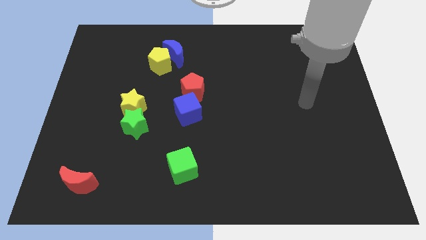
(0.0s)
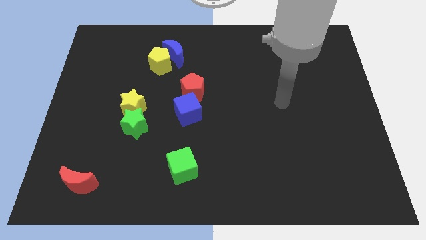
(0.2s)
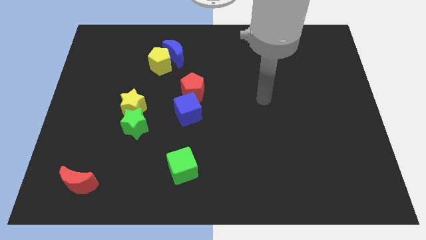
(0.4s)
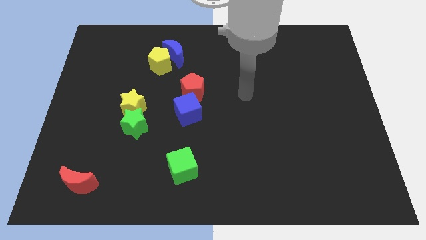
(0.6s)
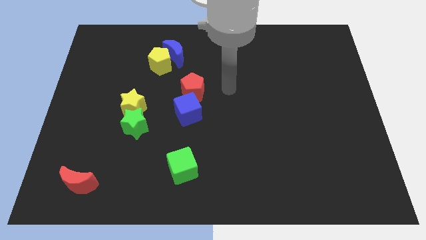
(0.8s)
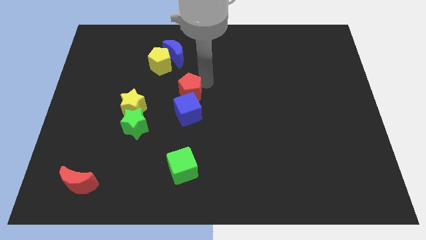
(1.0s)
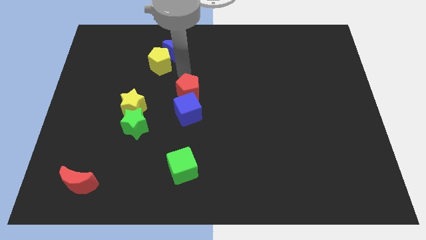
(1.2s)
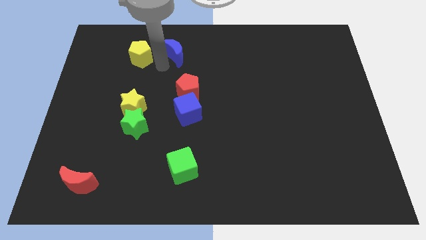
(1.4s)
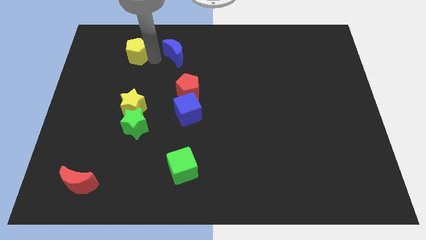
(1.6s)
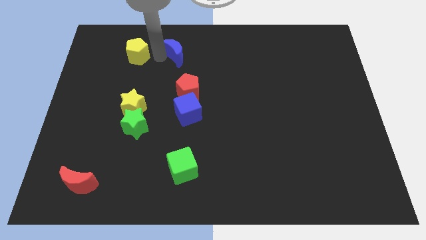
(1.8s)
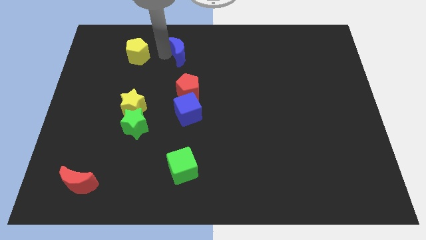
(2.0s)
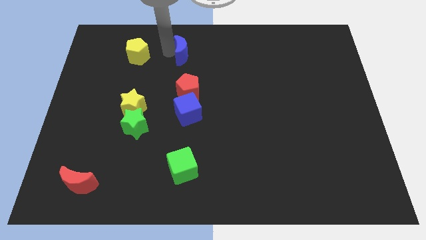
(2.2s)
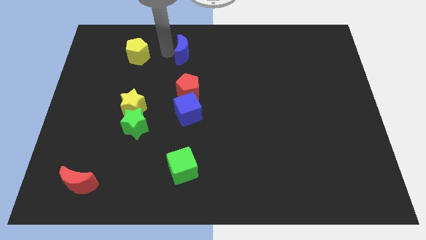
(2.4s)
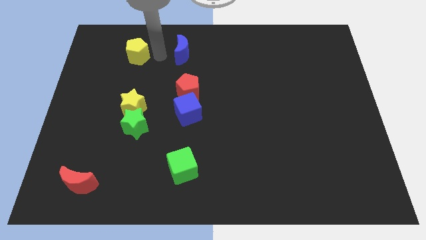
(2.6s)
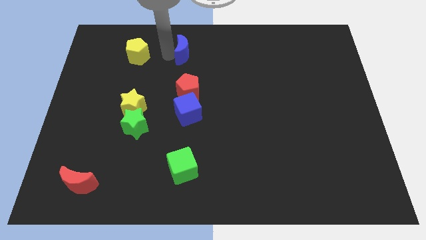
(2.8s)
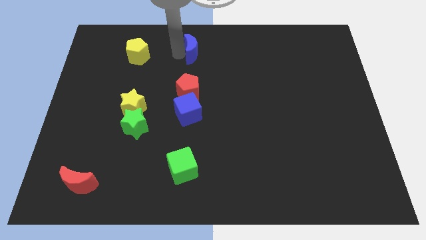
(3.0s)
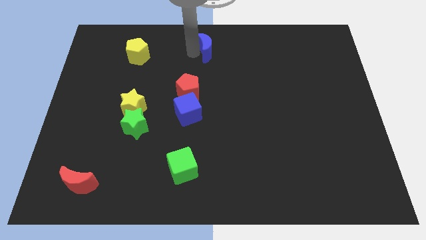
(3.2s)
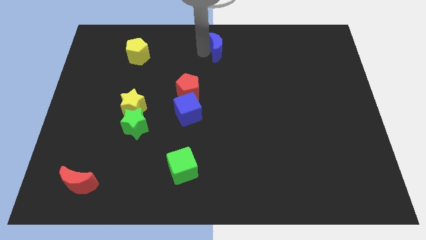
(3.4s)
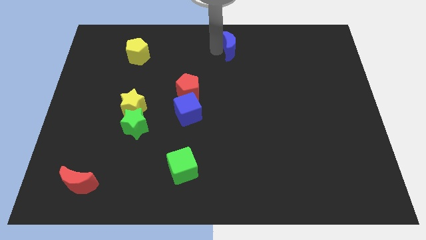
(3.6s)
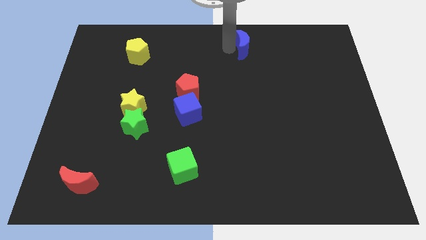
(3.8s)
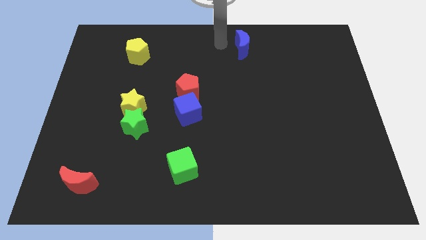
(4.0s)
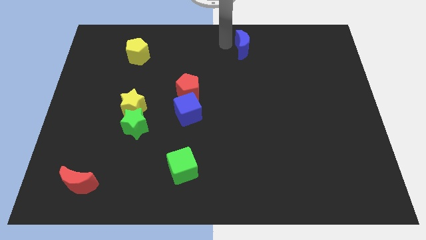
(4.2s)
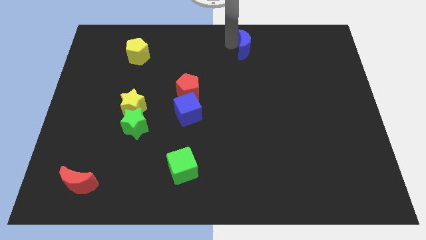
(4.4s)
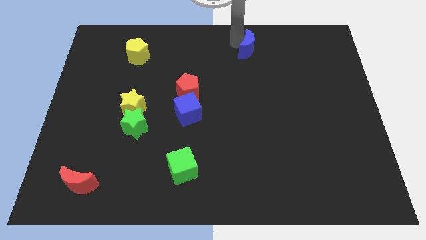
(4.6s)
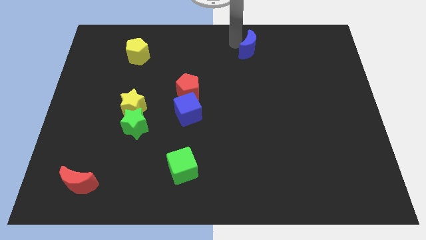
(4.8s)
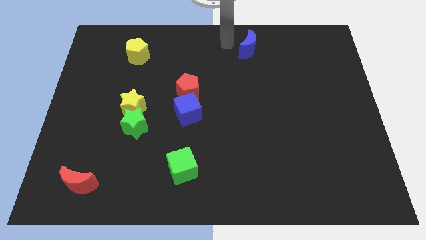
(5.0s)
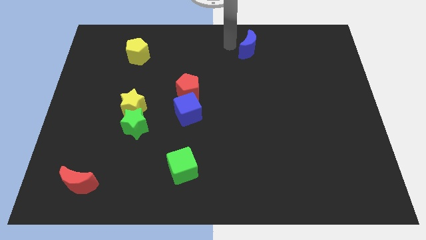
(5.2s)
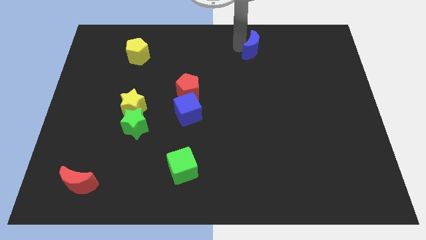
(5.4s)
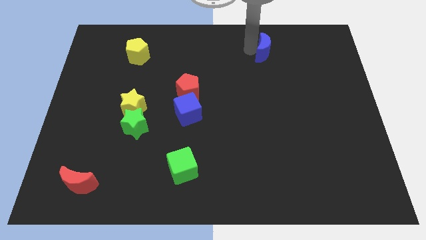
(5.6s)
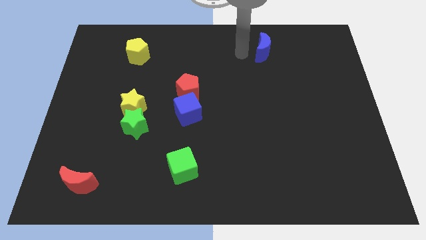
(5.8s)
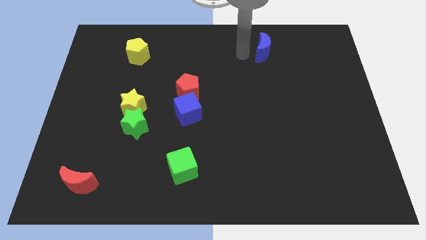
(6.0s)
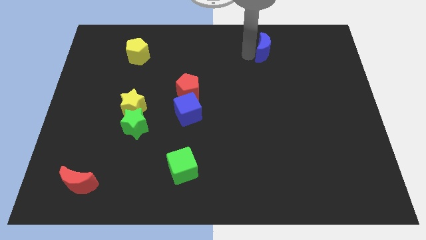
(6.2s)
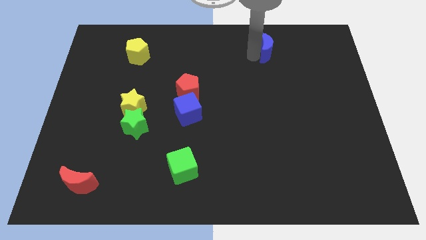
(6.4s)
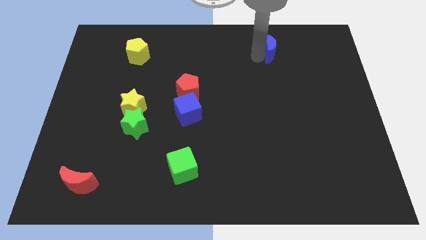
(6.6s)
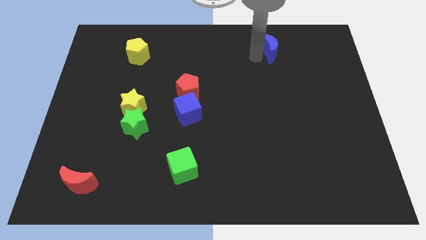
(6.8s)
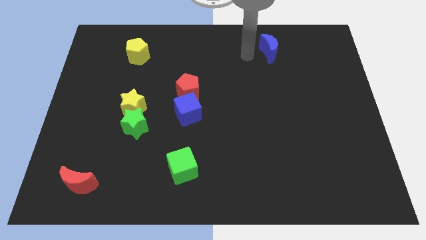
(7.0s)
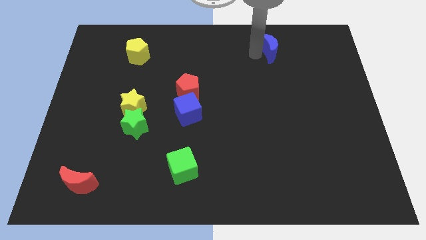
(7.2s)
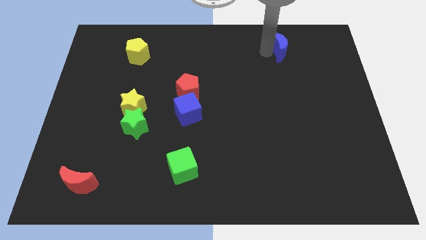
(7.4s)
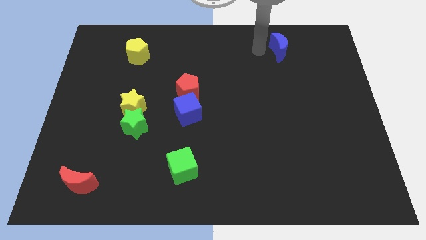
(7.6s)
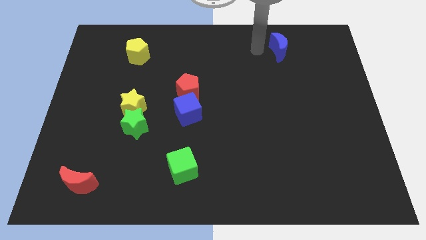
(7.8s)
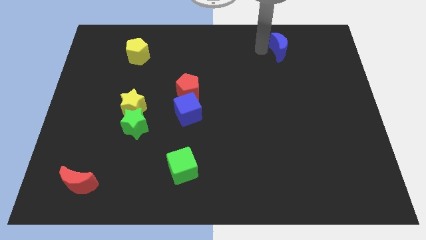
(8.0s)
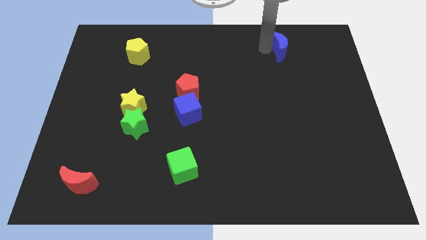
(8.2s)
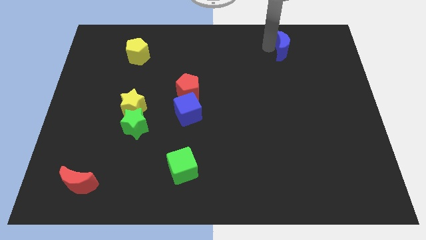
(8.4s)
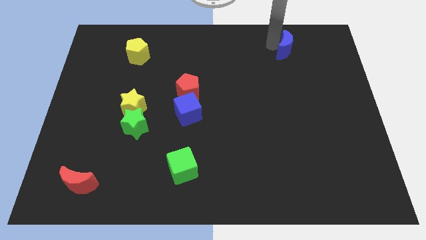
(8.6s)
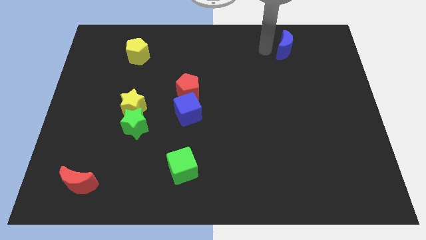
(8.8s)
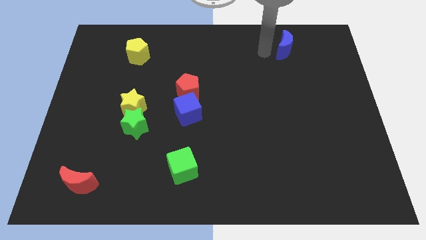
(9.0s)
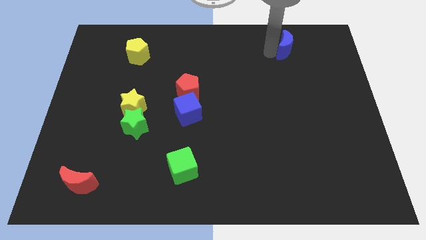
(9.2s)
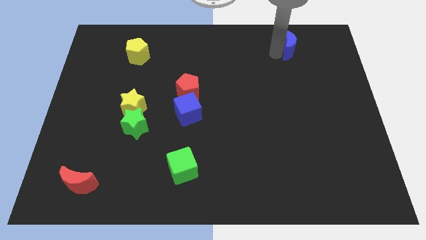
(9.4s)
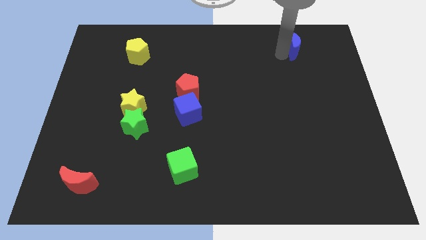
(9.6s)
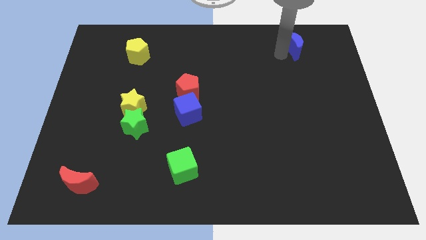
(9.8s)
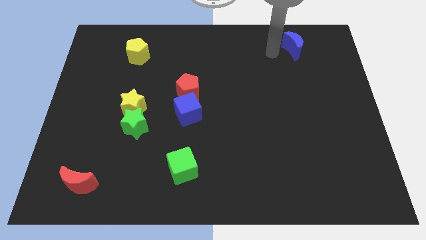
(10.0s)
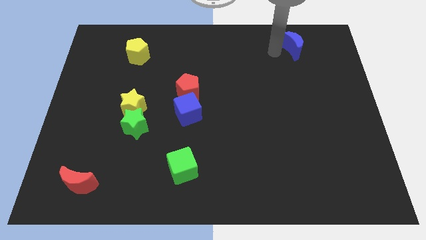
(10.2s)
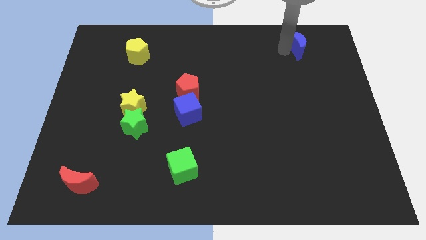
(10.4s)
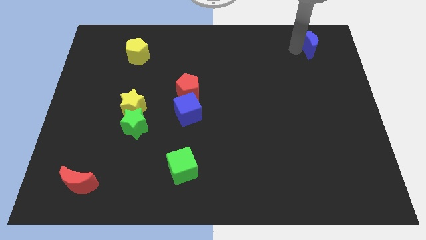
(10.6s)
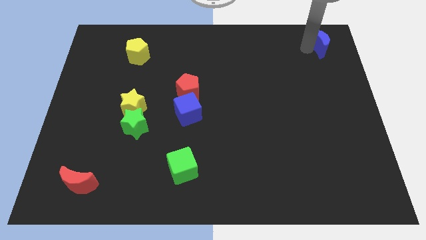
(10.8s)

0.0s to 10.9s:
put the blue moon to the top right

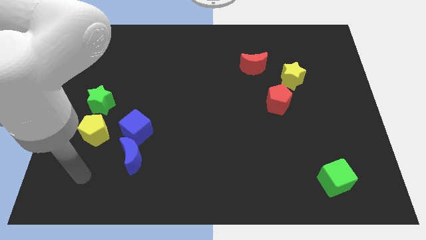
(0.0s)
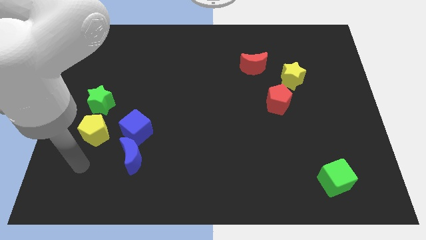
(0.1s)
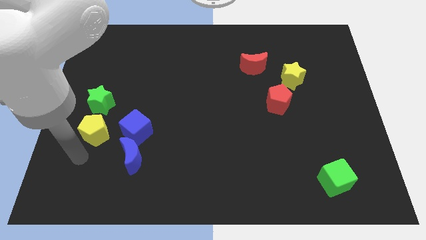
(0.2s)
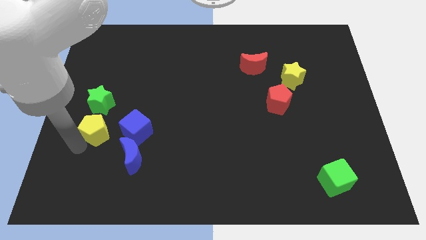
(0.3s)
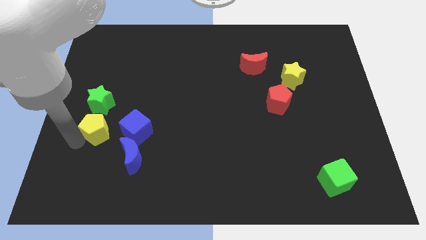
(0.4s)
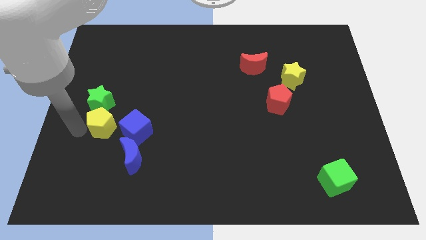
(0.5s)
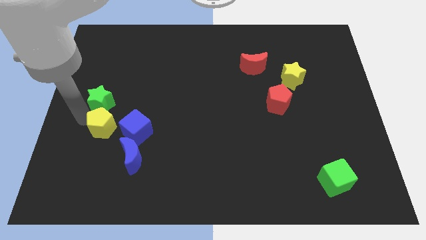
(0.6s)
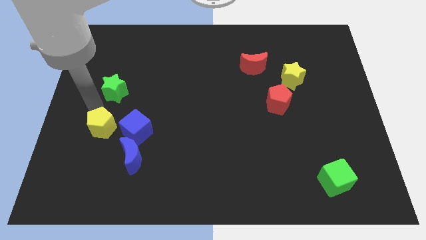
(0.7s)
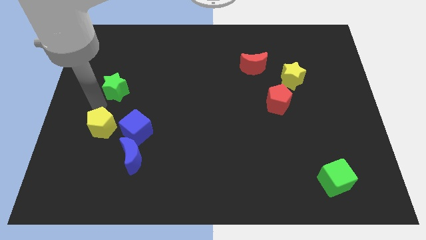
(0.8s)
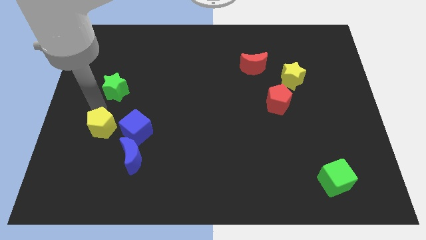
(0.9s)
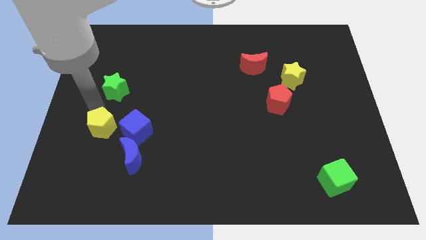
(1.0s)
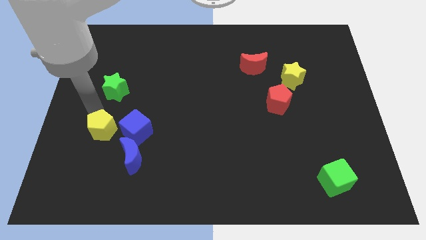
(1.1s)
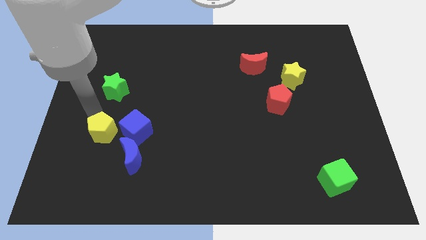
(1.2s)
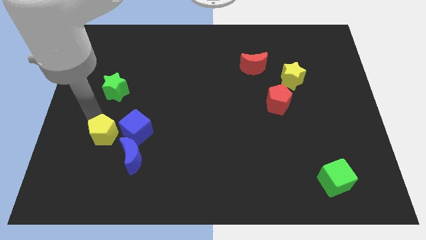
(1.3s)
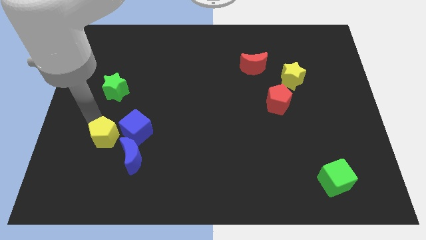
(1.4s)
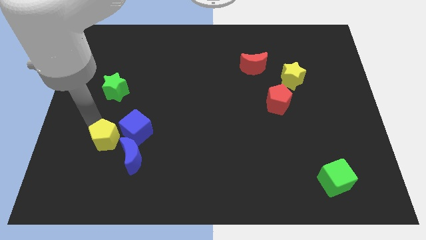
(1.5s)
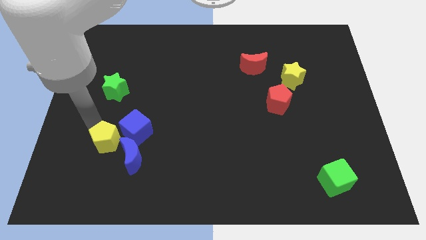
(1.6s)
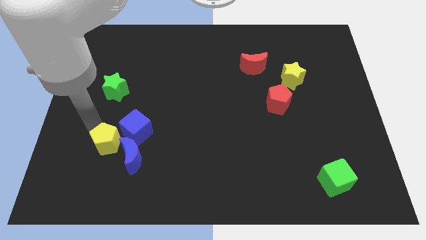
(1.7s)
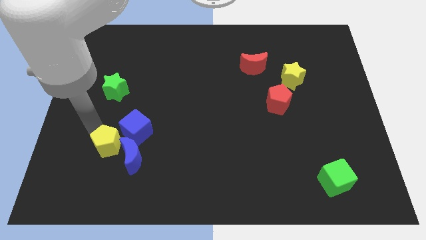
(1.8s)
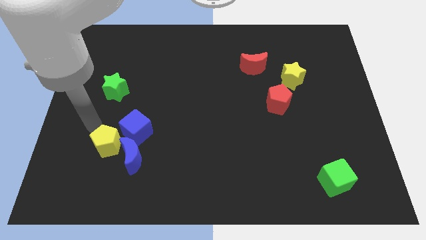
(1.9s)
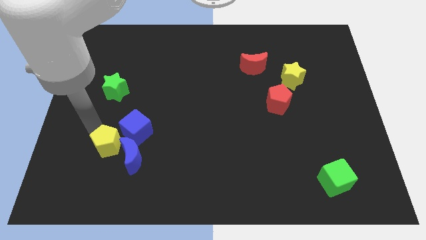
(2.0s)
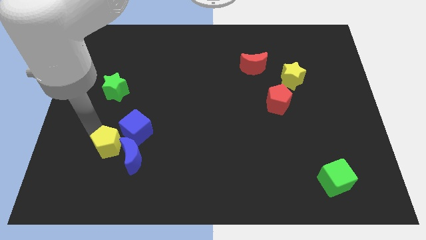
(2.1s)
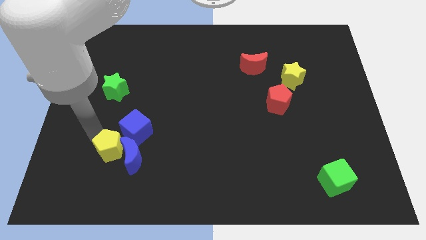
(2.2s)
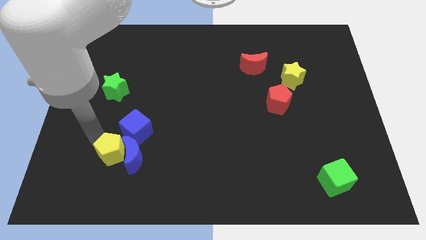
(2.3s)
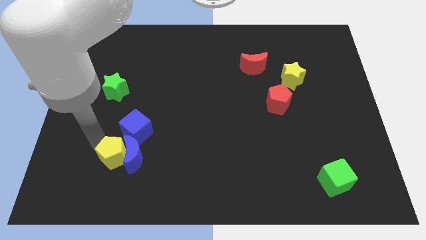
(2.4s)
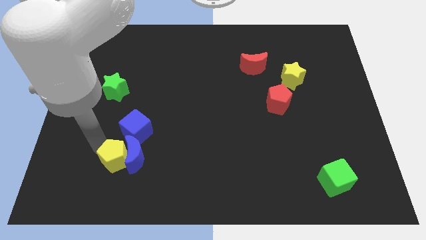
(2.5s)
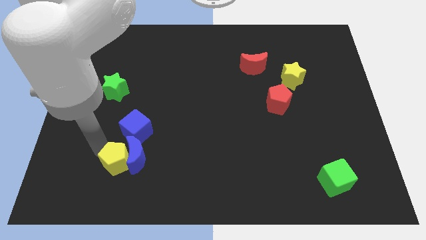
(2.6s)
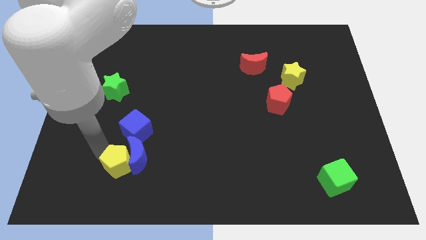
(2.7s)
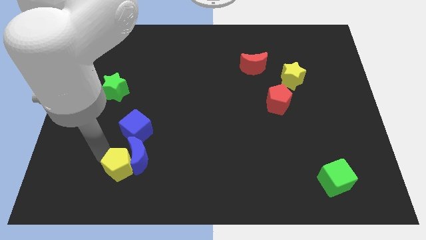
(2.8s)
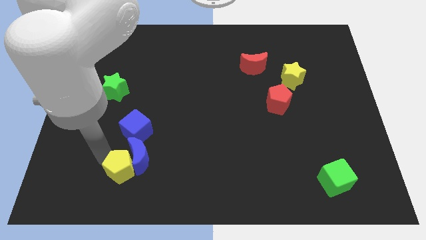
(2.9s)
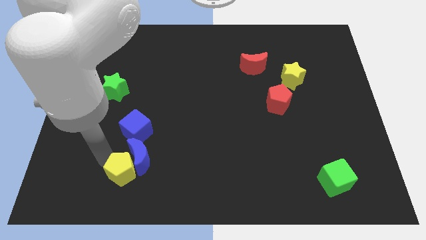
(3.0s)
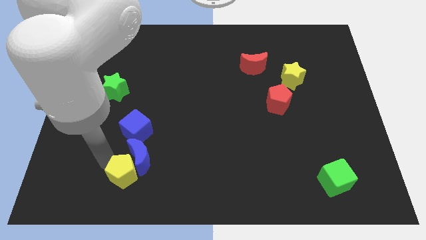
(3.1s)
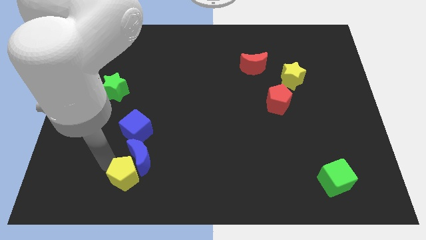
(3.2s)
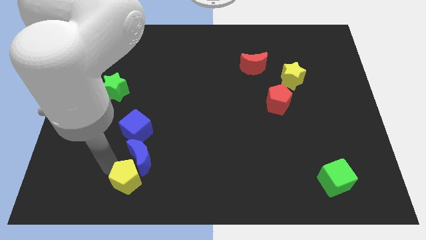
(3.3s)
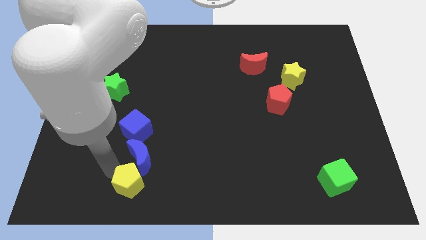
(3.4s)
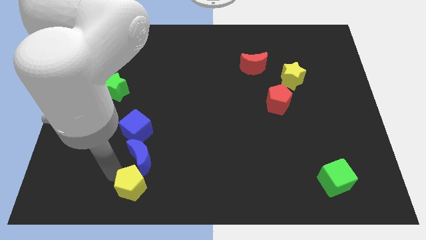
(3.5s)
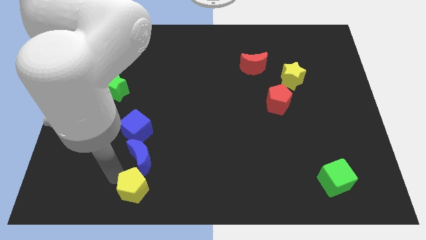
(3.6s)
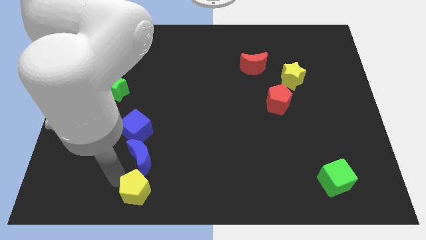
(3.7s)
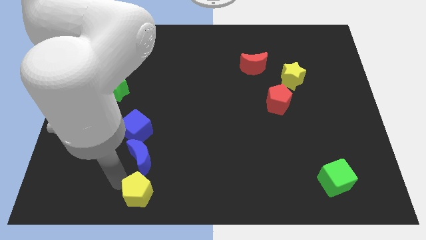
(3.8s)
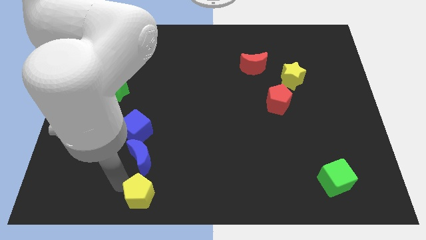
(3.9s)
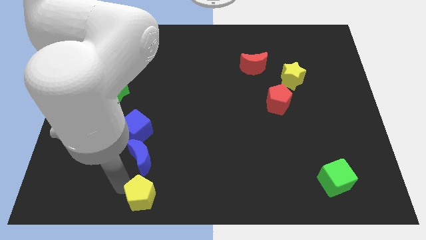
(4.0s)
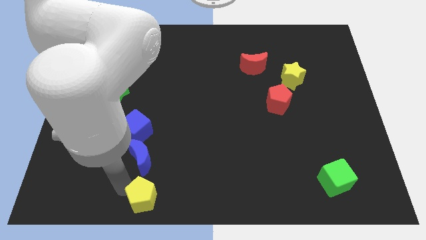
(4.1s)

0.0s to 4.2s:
push the yellow pentagon to the bottom
